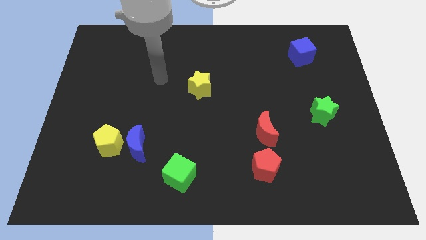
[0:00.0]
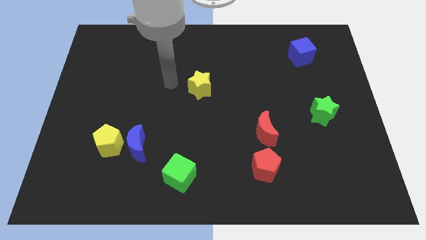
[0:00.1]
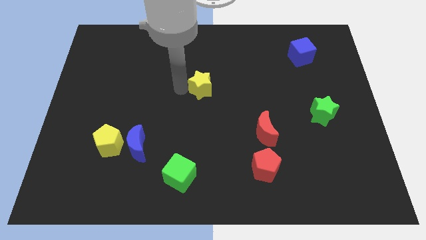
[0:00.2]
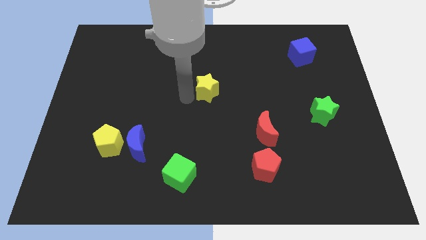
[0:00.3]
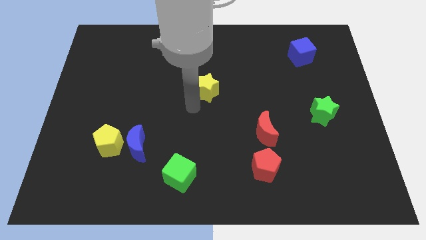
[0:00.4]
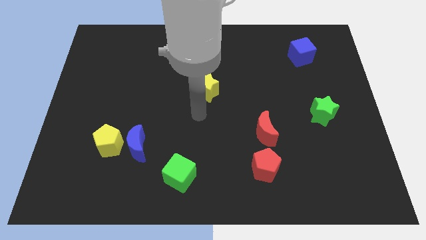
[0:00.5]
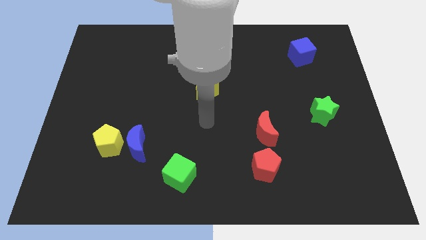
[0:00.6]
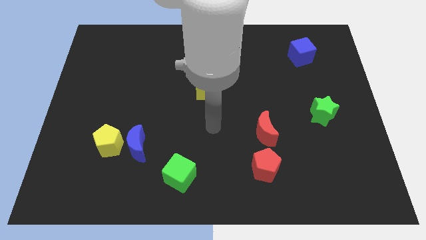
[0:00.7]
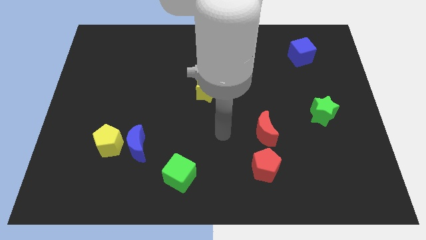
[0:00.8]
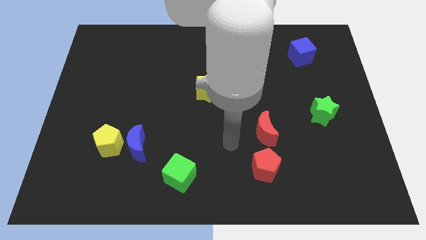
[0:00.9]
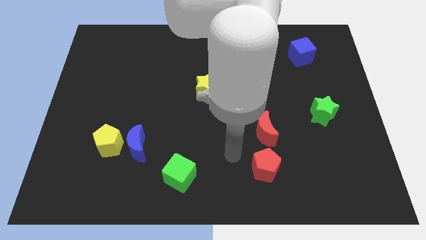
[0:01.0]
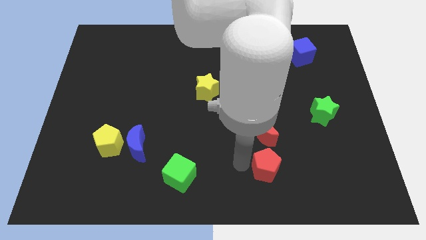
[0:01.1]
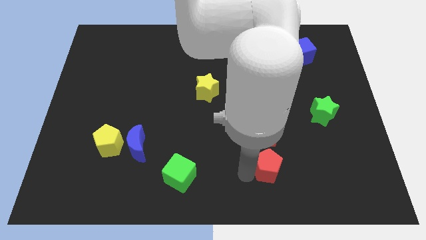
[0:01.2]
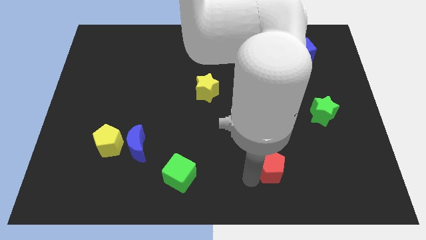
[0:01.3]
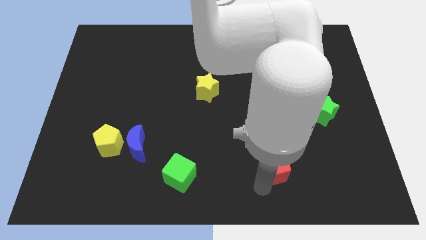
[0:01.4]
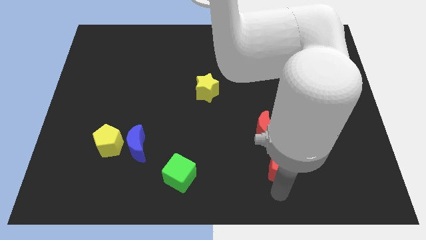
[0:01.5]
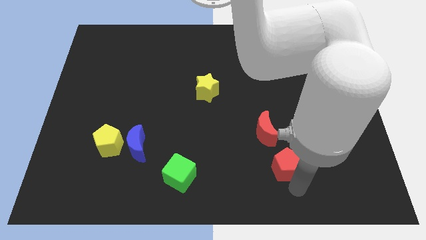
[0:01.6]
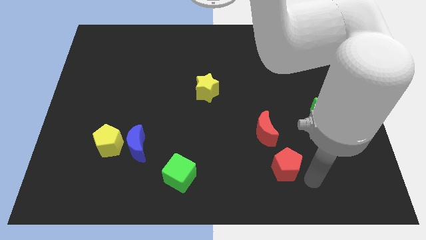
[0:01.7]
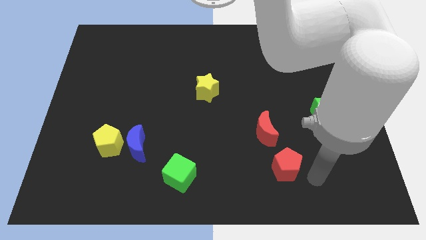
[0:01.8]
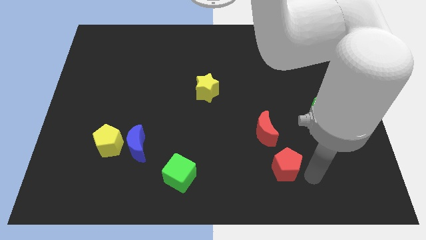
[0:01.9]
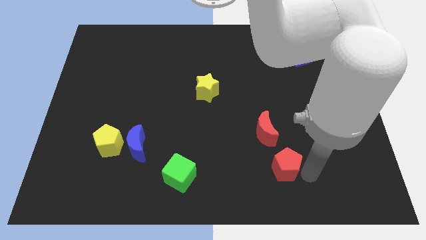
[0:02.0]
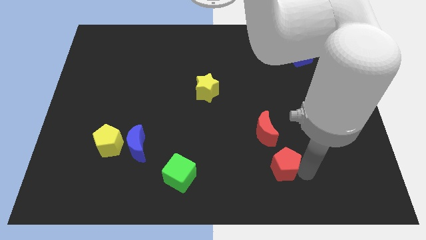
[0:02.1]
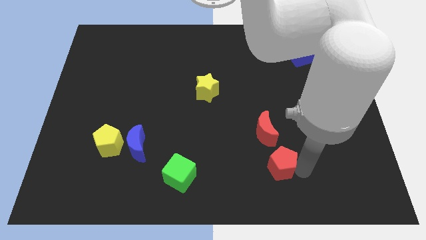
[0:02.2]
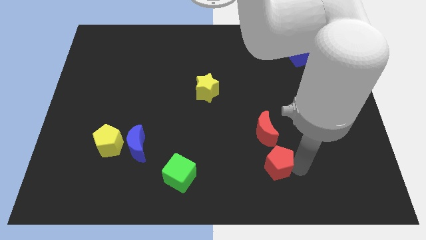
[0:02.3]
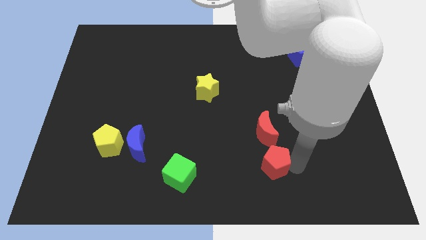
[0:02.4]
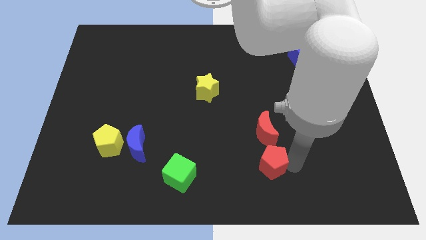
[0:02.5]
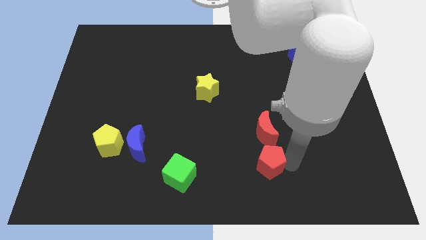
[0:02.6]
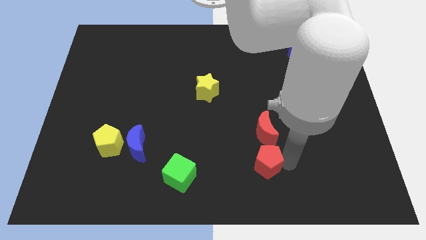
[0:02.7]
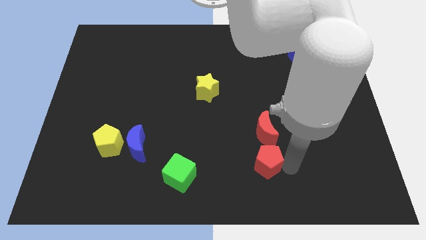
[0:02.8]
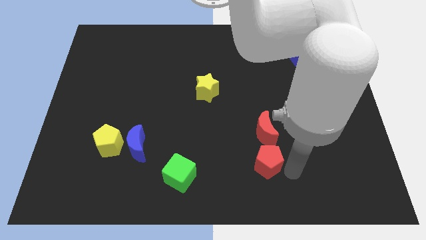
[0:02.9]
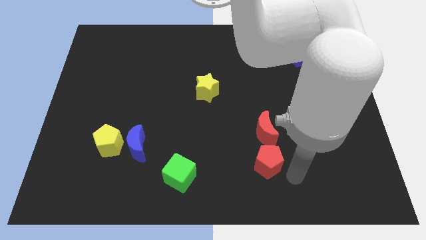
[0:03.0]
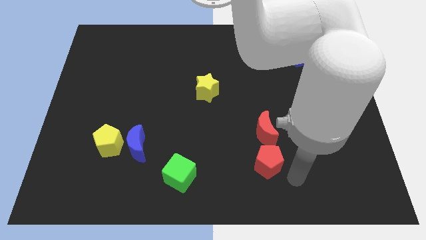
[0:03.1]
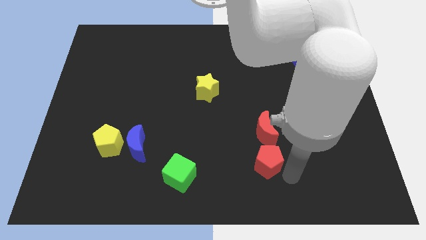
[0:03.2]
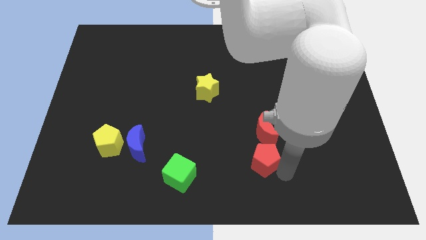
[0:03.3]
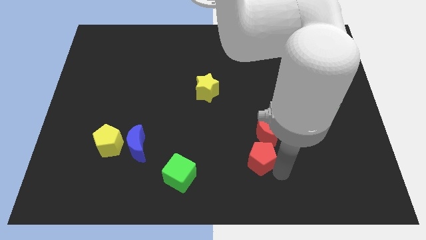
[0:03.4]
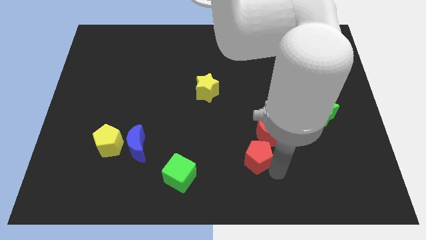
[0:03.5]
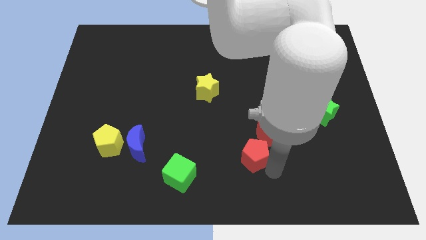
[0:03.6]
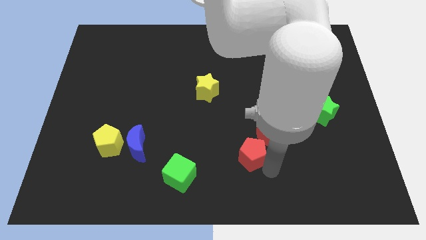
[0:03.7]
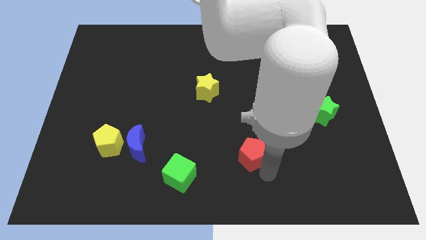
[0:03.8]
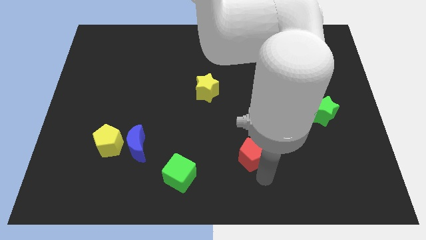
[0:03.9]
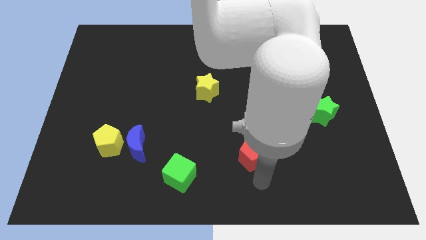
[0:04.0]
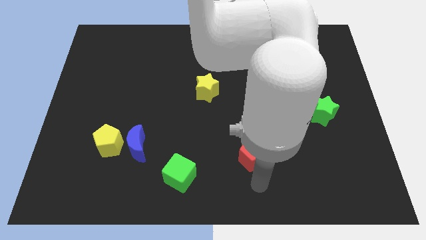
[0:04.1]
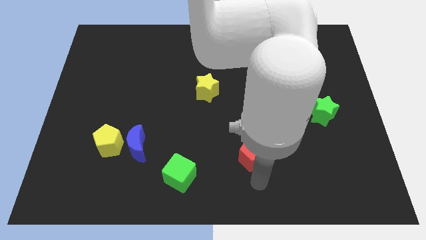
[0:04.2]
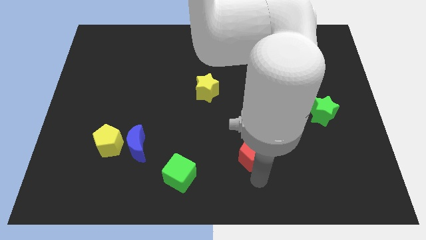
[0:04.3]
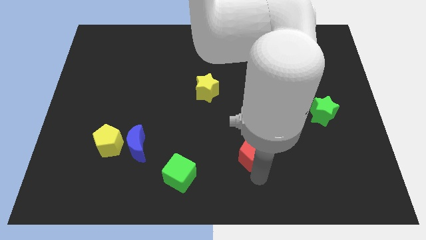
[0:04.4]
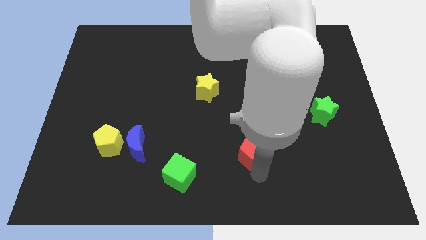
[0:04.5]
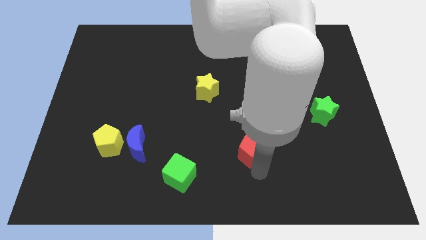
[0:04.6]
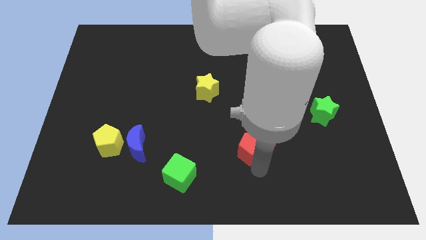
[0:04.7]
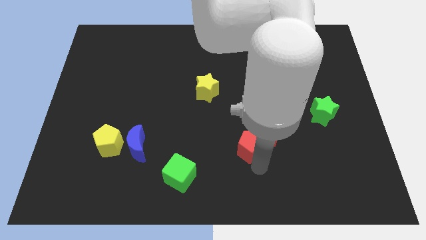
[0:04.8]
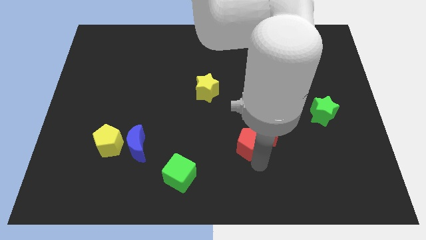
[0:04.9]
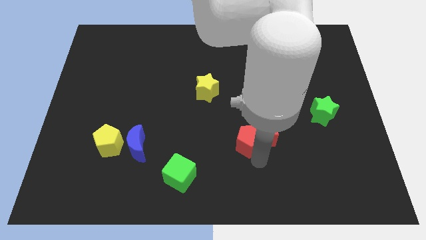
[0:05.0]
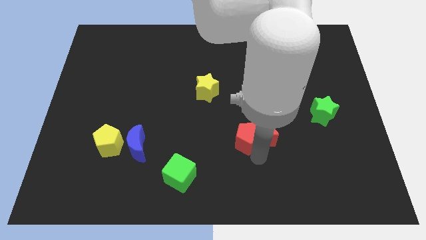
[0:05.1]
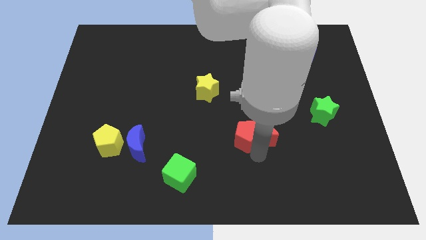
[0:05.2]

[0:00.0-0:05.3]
slightly push the red pentagon up

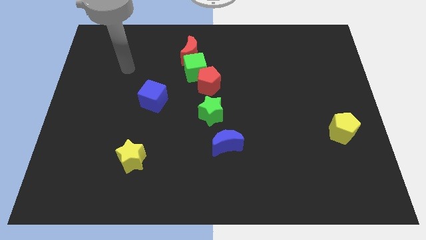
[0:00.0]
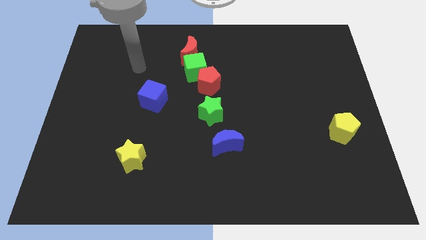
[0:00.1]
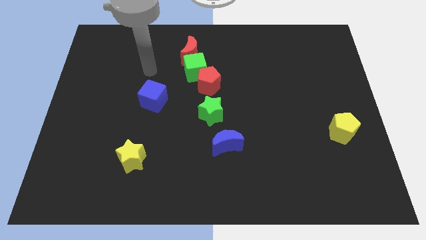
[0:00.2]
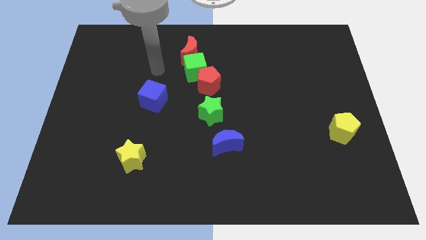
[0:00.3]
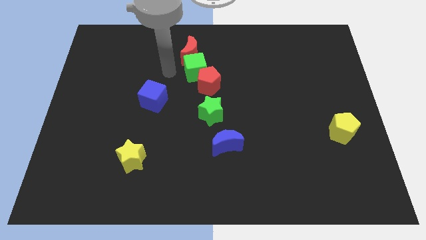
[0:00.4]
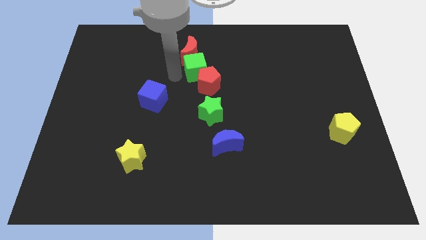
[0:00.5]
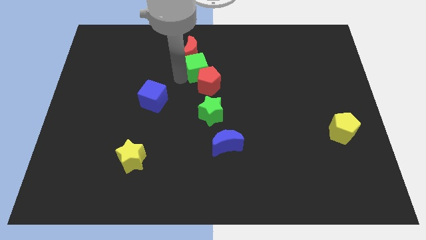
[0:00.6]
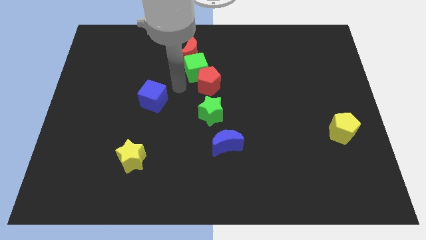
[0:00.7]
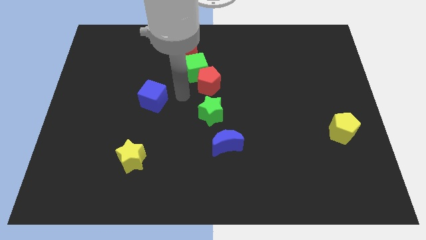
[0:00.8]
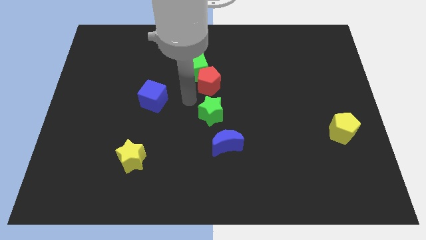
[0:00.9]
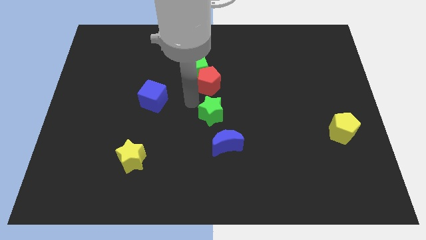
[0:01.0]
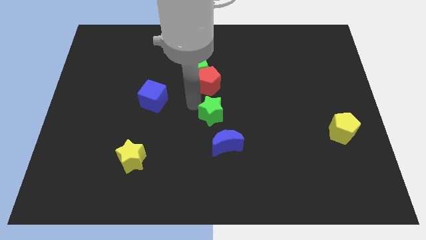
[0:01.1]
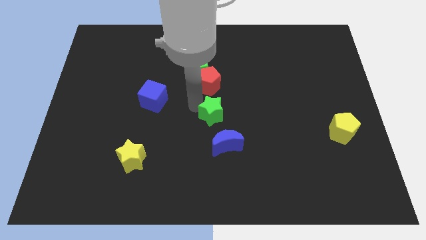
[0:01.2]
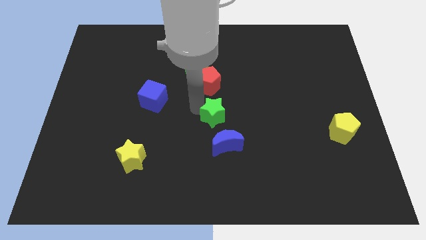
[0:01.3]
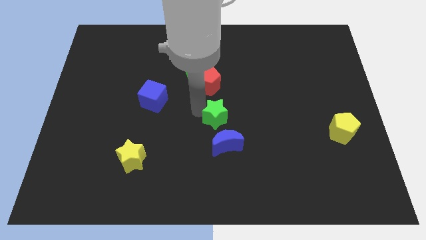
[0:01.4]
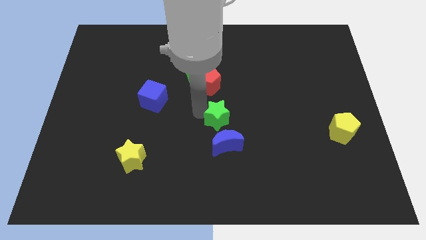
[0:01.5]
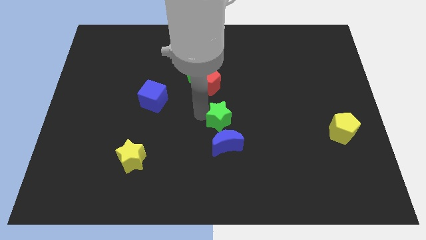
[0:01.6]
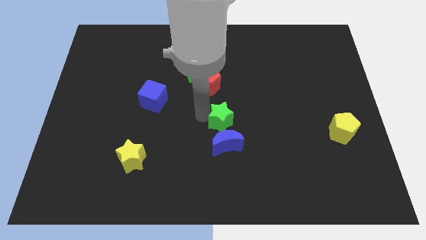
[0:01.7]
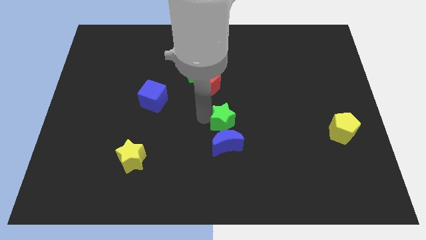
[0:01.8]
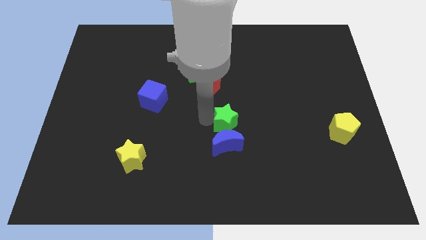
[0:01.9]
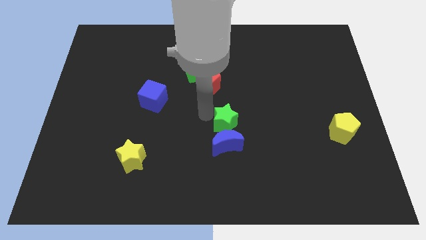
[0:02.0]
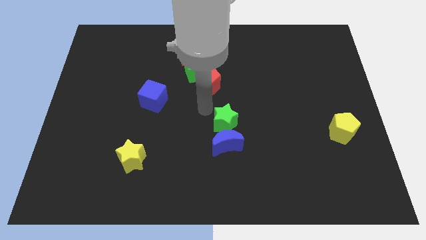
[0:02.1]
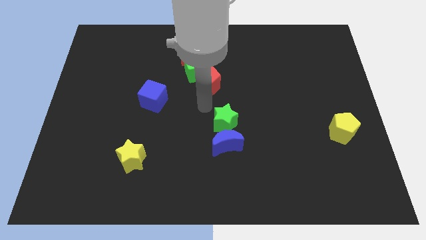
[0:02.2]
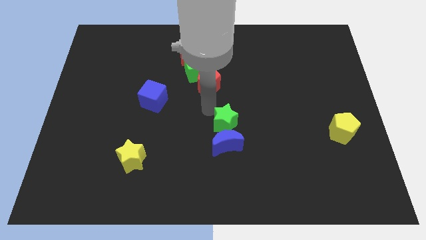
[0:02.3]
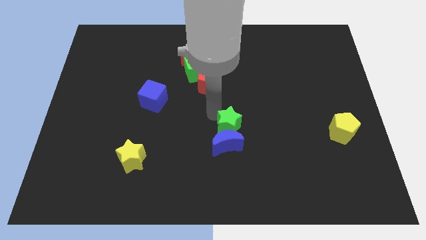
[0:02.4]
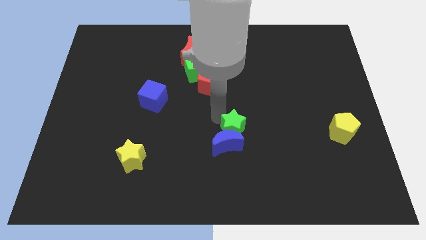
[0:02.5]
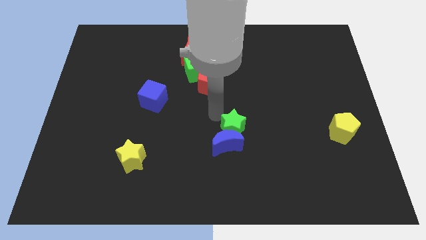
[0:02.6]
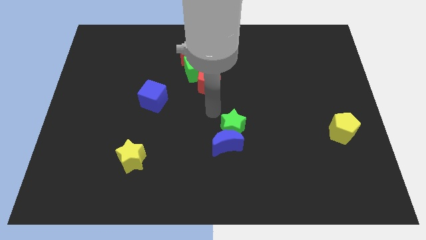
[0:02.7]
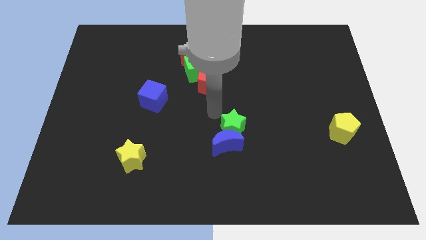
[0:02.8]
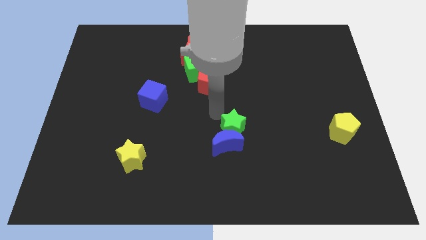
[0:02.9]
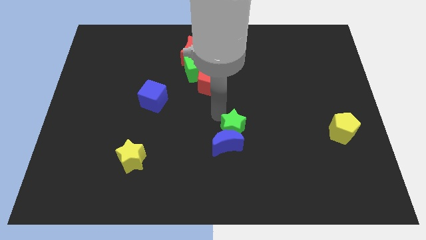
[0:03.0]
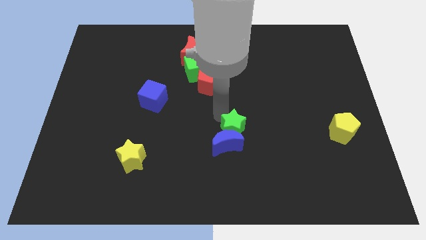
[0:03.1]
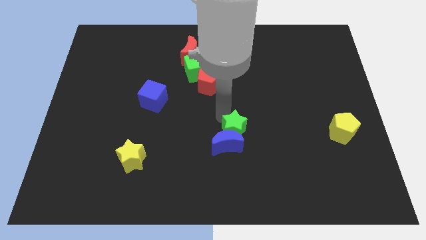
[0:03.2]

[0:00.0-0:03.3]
slide the green star down and to the right a little bit
